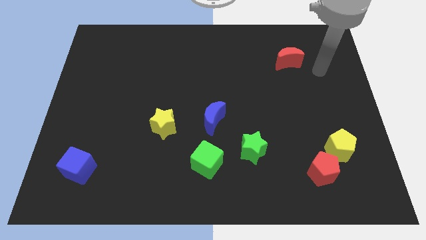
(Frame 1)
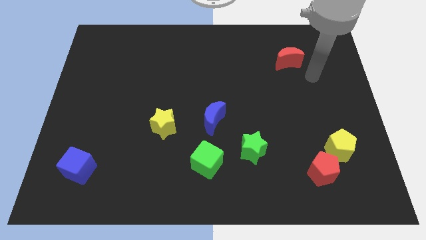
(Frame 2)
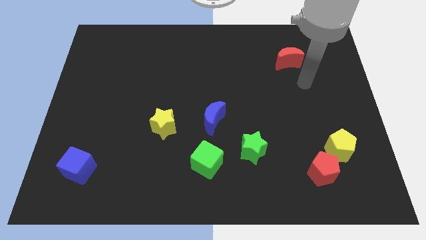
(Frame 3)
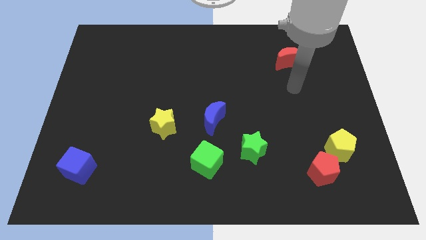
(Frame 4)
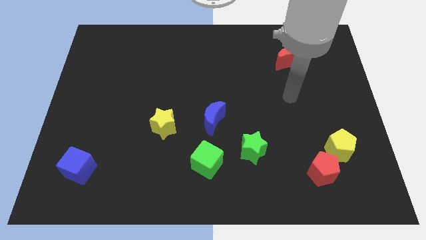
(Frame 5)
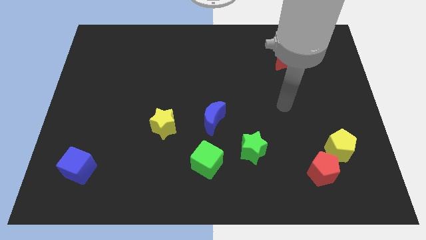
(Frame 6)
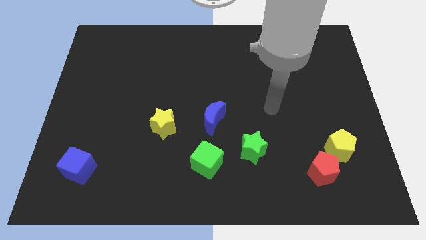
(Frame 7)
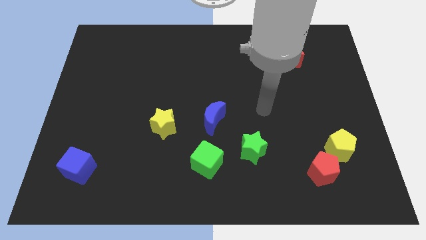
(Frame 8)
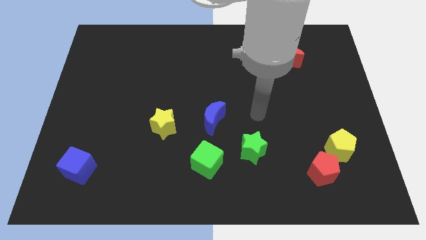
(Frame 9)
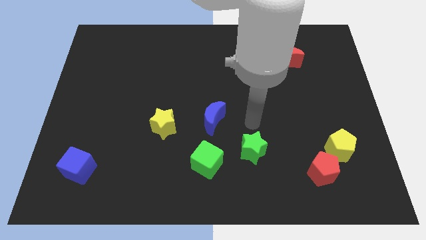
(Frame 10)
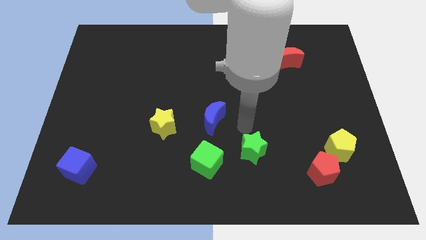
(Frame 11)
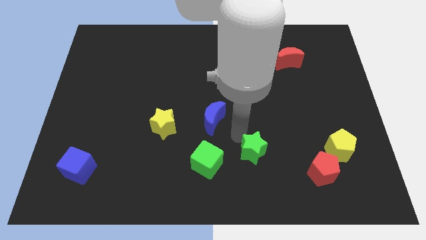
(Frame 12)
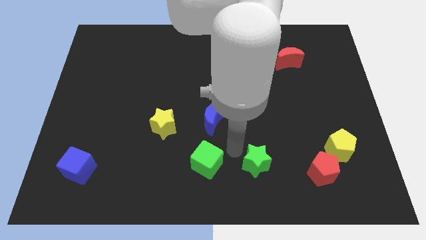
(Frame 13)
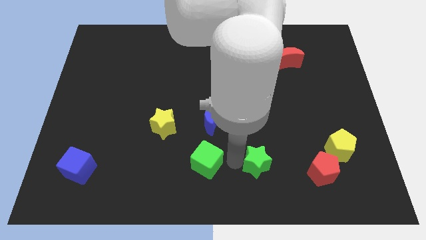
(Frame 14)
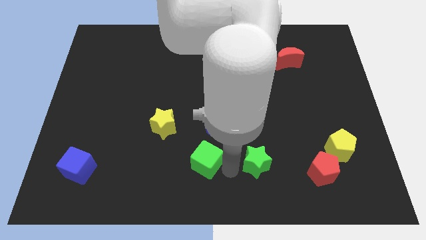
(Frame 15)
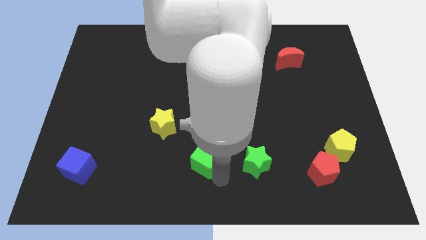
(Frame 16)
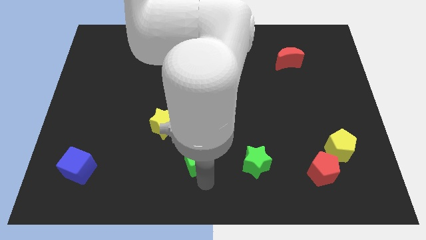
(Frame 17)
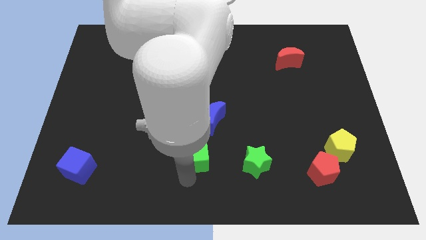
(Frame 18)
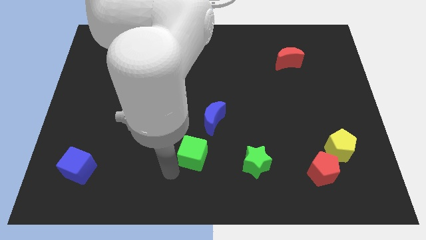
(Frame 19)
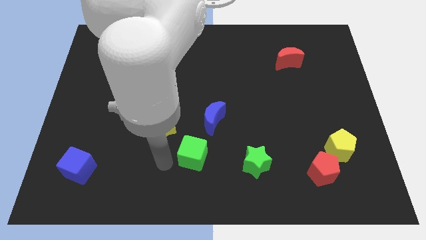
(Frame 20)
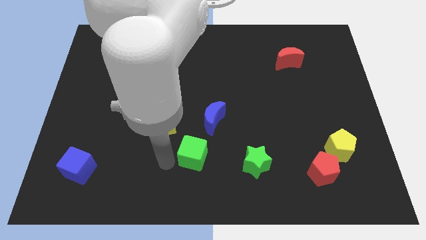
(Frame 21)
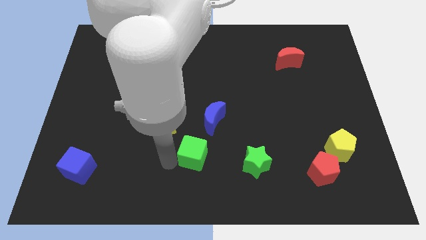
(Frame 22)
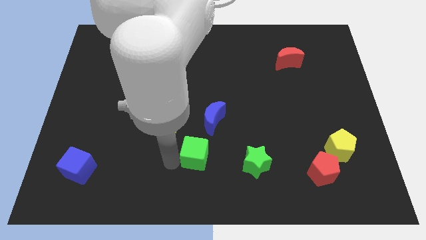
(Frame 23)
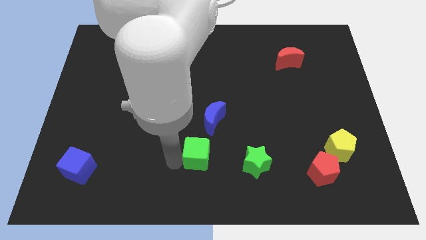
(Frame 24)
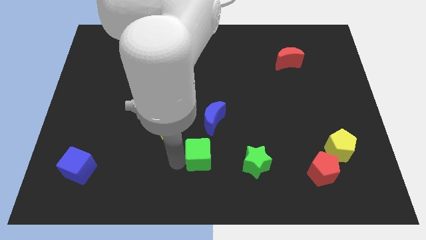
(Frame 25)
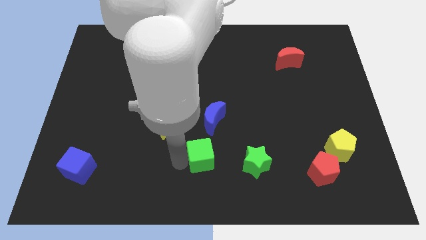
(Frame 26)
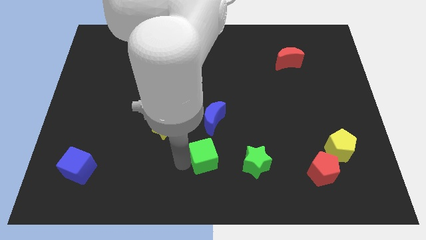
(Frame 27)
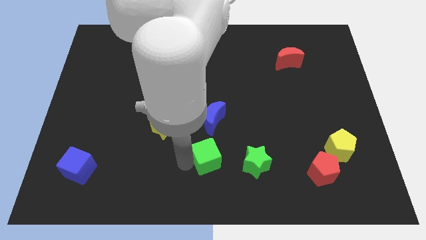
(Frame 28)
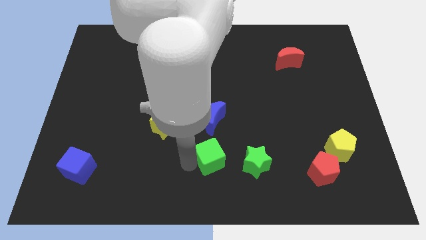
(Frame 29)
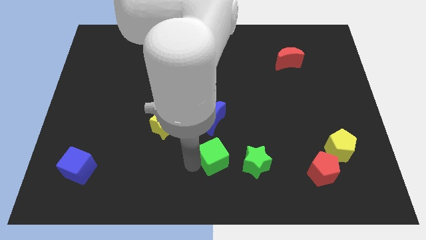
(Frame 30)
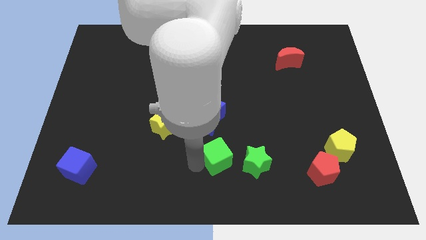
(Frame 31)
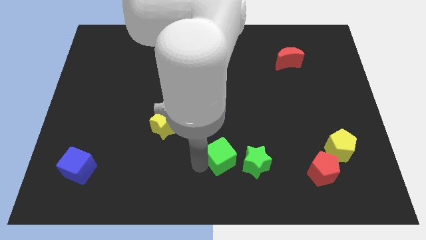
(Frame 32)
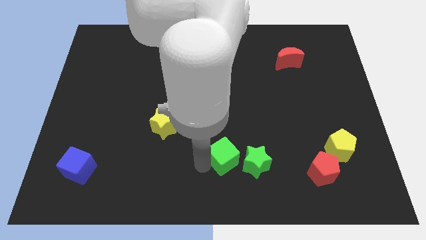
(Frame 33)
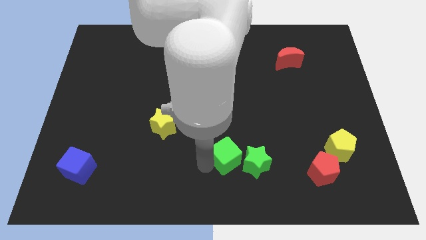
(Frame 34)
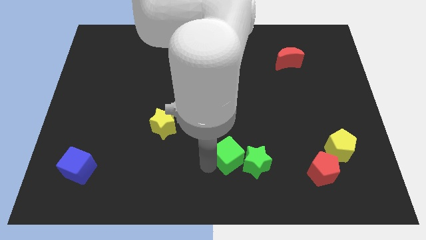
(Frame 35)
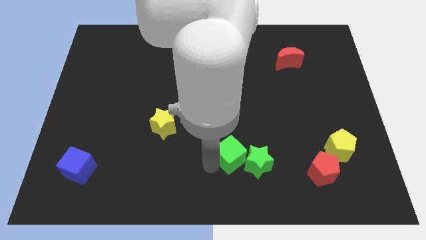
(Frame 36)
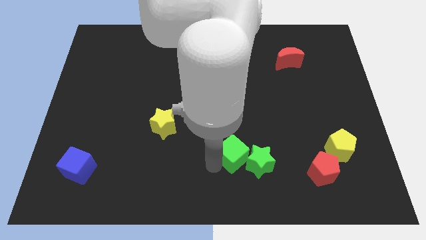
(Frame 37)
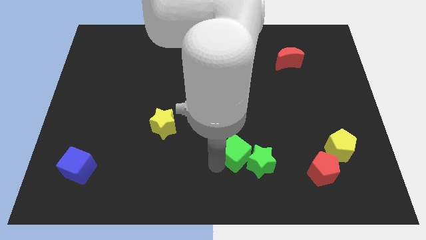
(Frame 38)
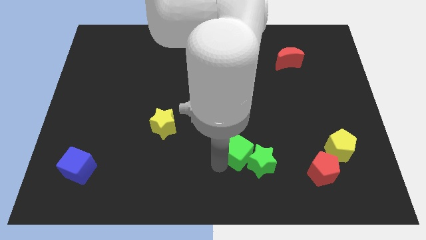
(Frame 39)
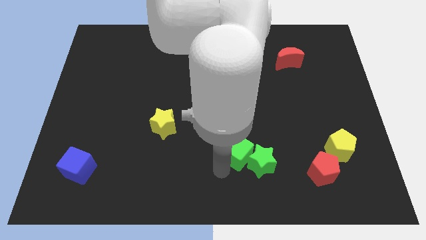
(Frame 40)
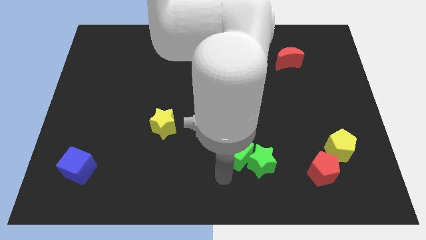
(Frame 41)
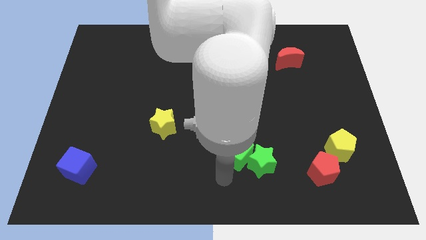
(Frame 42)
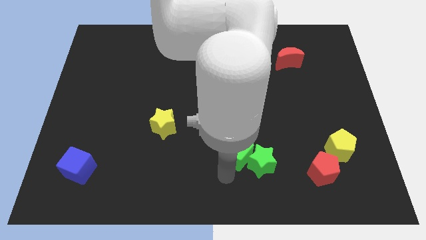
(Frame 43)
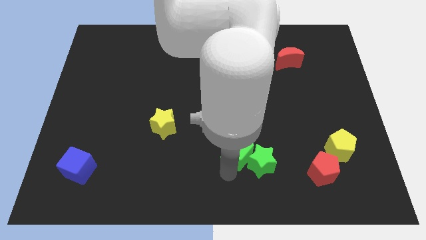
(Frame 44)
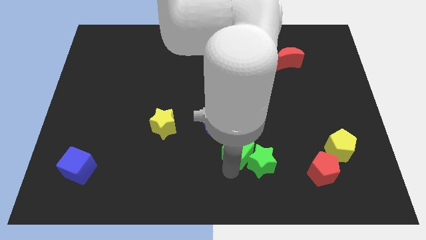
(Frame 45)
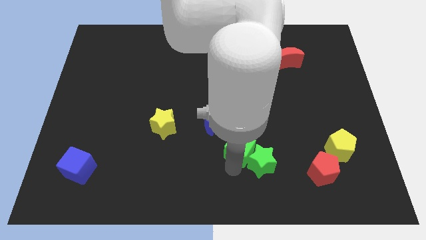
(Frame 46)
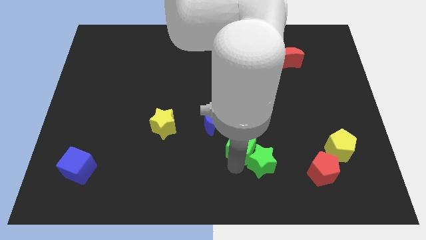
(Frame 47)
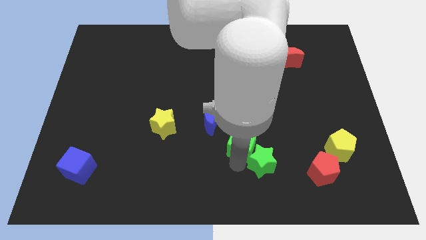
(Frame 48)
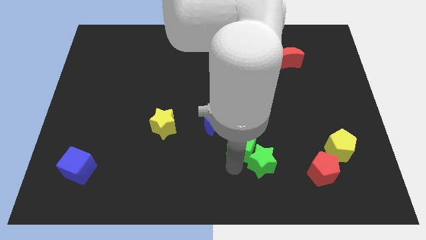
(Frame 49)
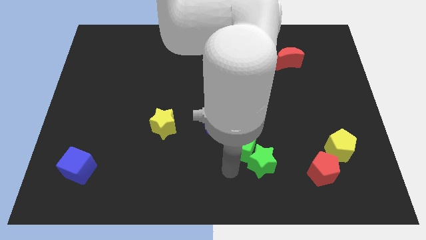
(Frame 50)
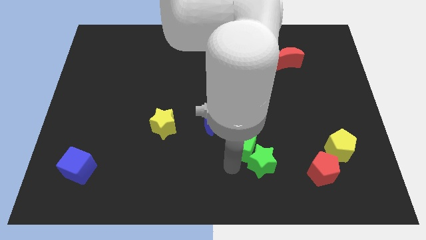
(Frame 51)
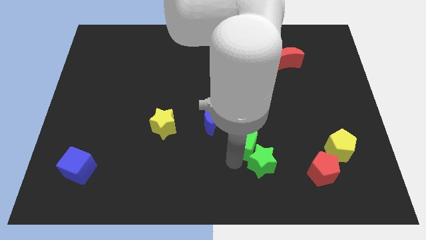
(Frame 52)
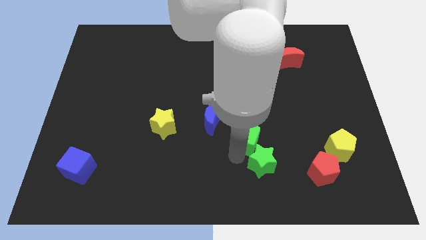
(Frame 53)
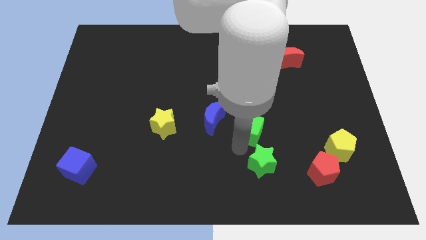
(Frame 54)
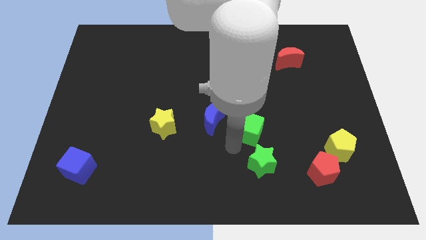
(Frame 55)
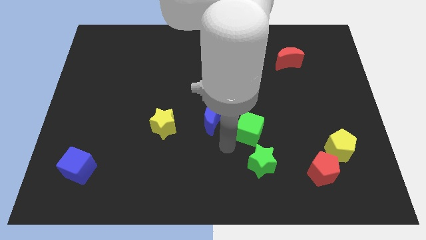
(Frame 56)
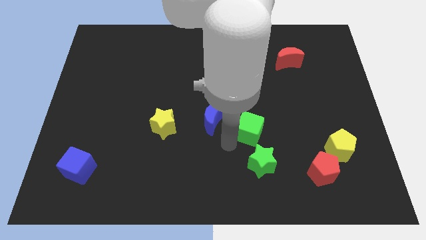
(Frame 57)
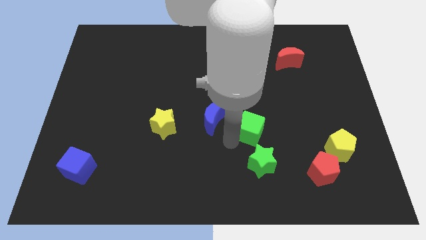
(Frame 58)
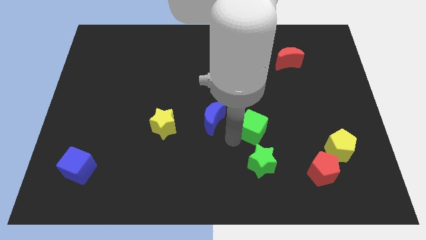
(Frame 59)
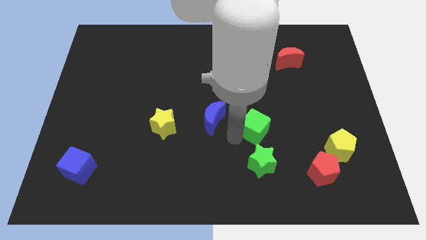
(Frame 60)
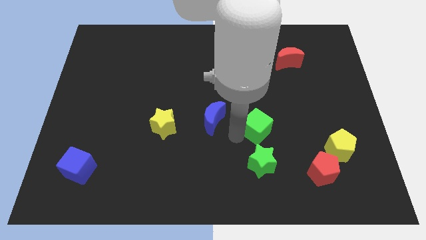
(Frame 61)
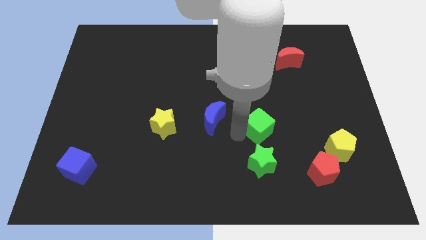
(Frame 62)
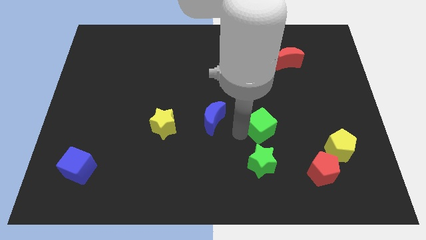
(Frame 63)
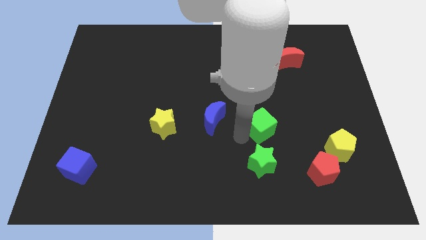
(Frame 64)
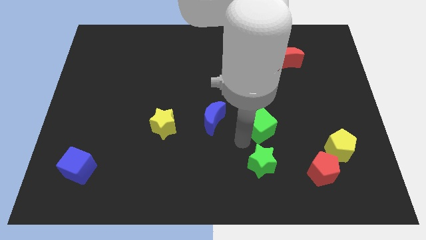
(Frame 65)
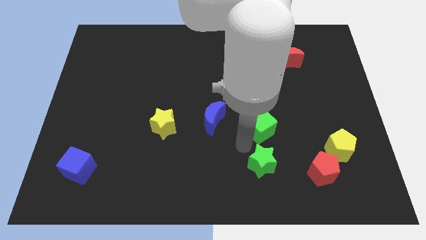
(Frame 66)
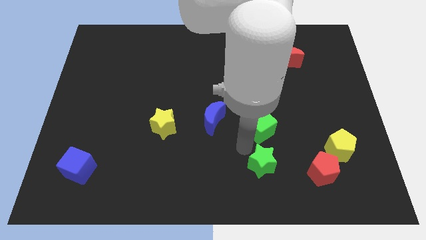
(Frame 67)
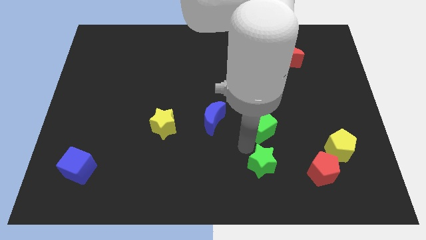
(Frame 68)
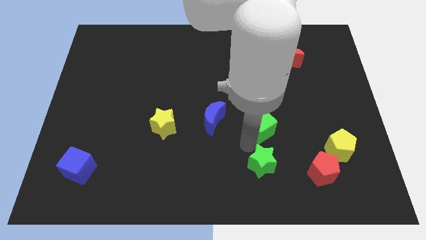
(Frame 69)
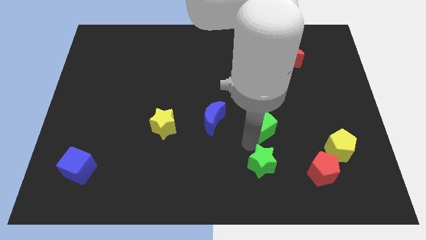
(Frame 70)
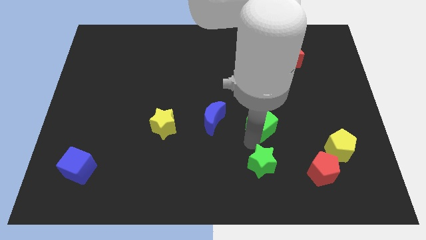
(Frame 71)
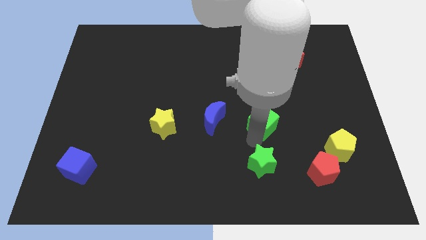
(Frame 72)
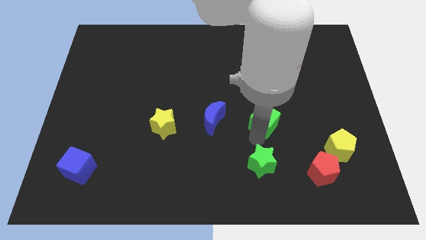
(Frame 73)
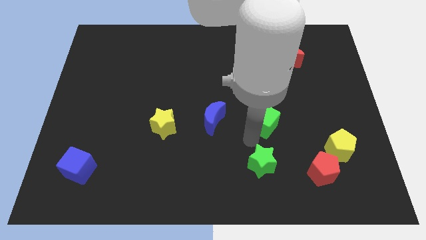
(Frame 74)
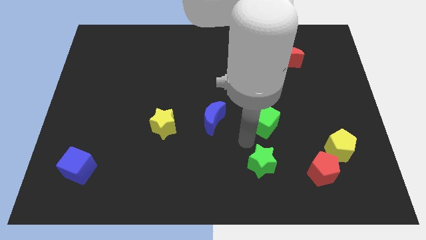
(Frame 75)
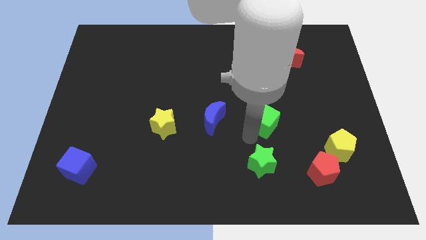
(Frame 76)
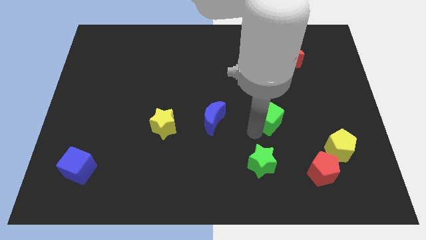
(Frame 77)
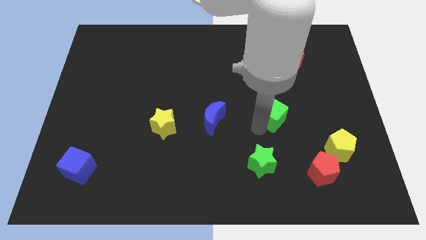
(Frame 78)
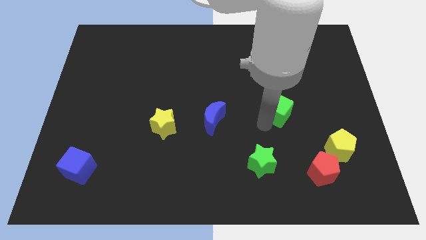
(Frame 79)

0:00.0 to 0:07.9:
push the green cube diagonally upwards and to the right
